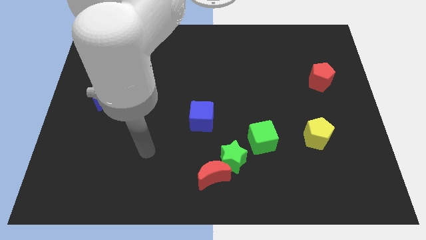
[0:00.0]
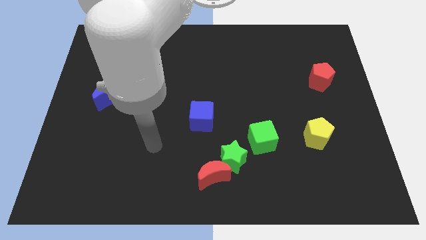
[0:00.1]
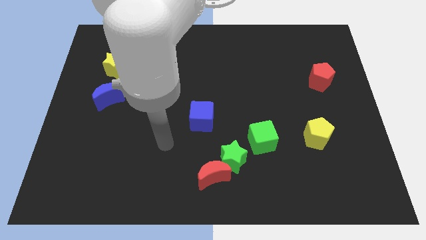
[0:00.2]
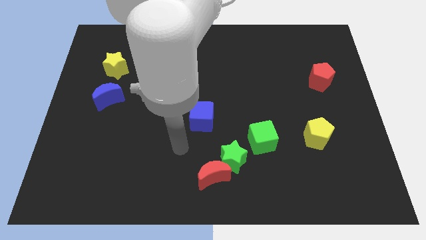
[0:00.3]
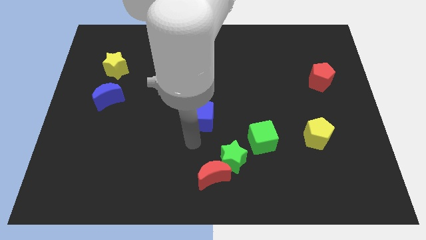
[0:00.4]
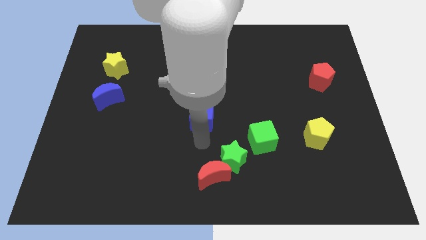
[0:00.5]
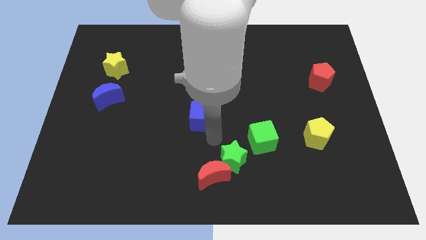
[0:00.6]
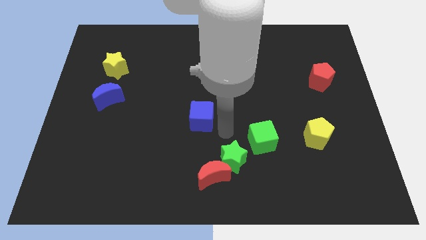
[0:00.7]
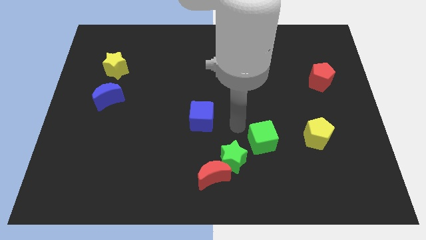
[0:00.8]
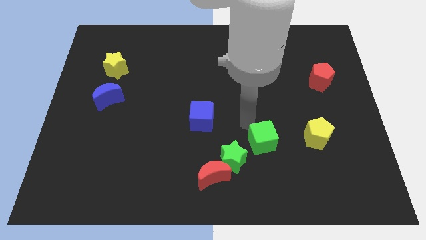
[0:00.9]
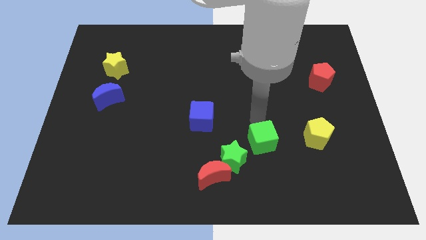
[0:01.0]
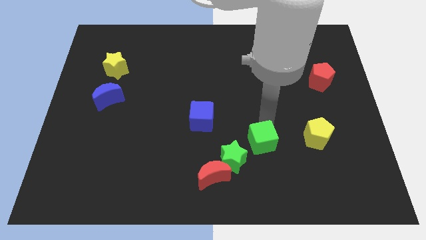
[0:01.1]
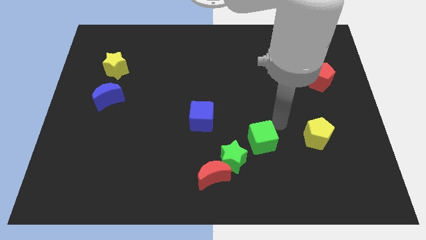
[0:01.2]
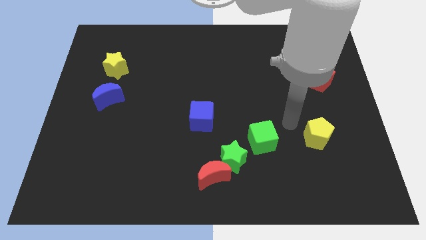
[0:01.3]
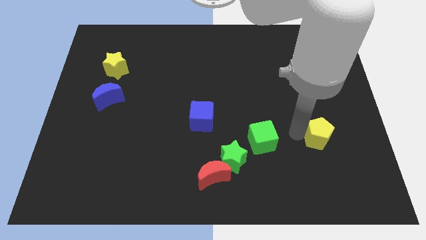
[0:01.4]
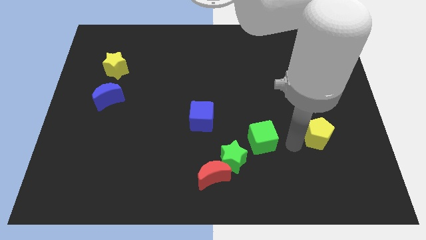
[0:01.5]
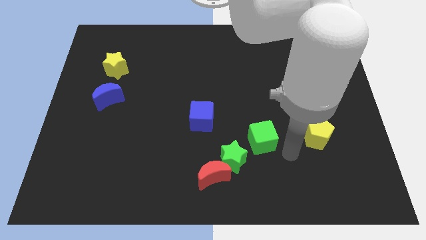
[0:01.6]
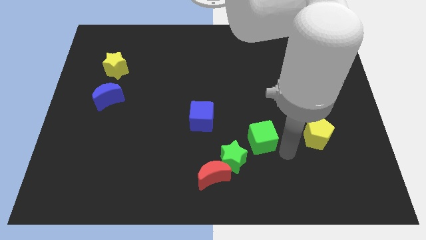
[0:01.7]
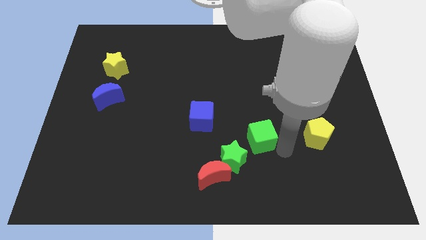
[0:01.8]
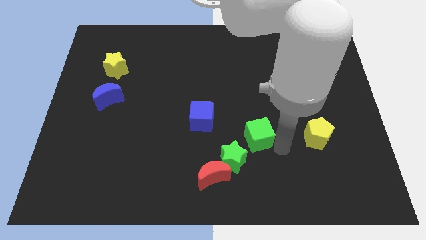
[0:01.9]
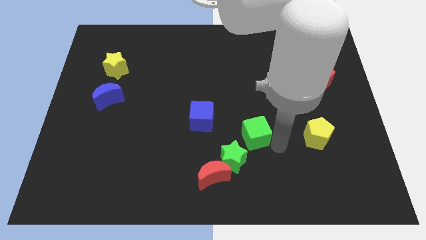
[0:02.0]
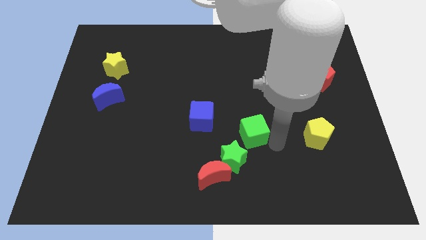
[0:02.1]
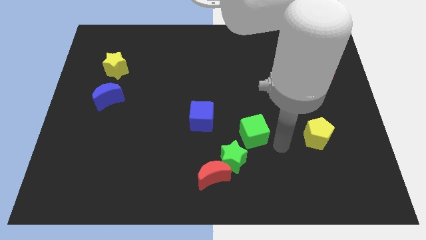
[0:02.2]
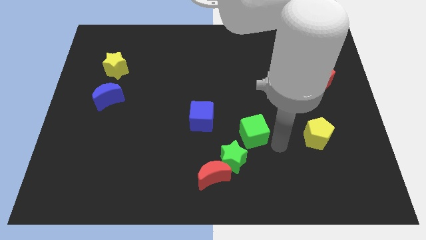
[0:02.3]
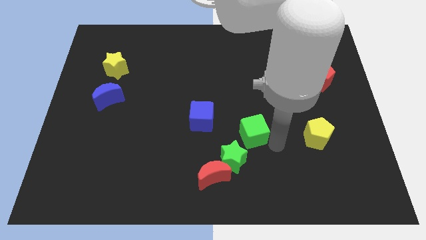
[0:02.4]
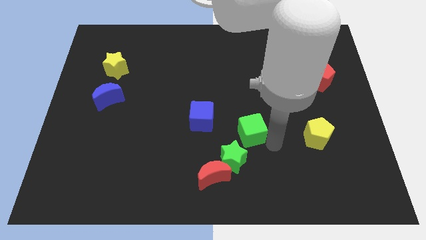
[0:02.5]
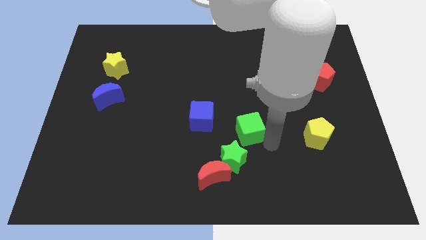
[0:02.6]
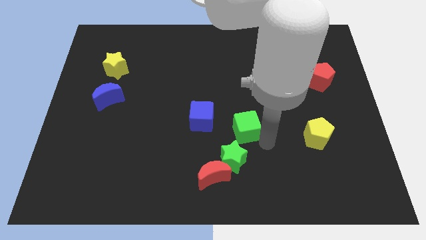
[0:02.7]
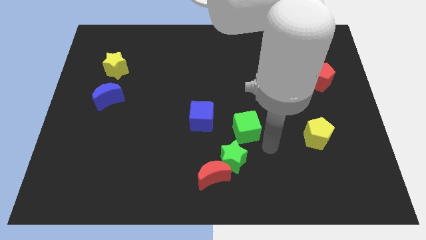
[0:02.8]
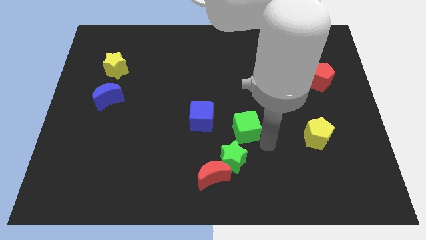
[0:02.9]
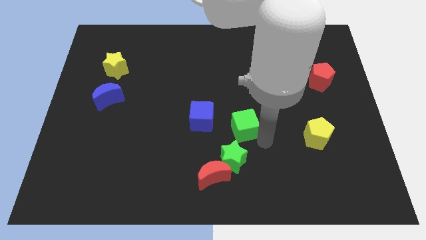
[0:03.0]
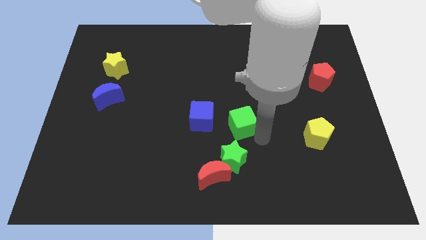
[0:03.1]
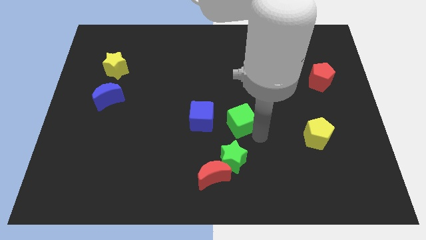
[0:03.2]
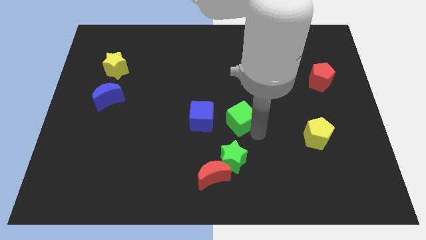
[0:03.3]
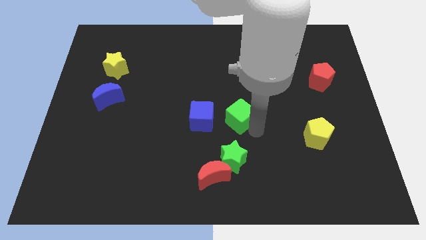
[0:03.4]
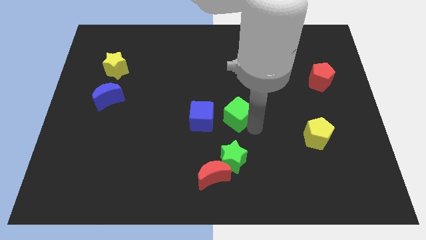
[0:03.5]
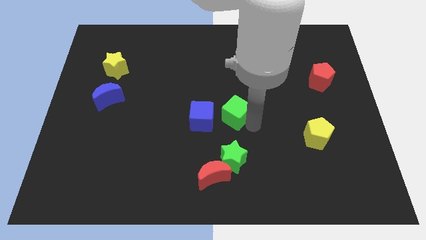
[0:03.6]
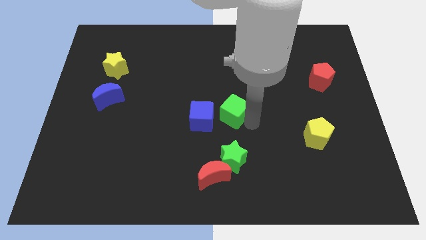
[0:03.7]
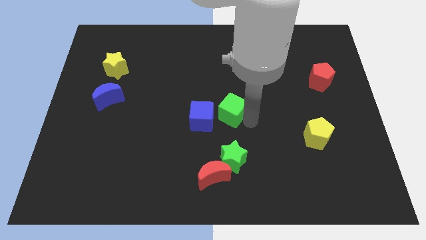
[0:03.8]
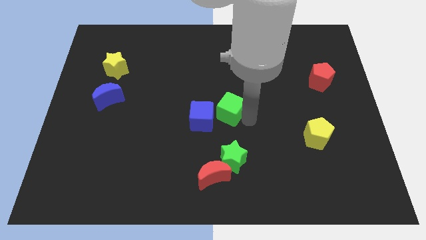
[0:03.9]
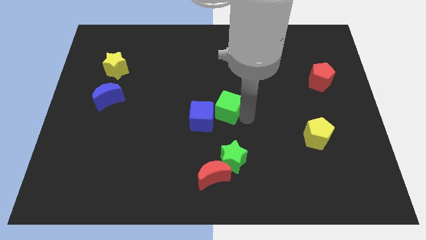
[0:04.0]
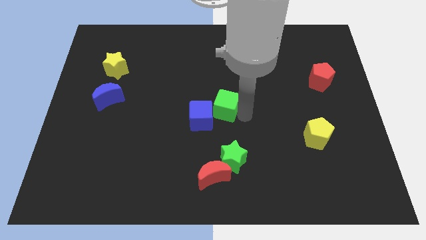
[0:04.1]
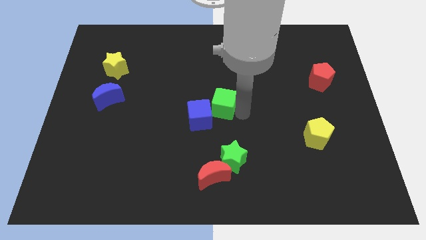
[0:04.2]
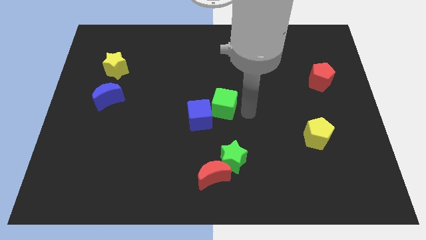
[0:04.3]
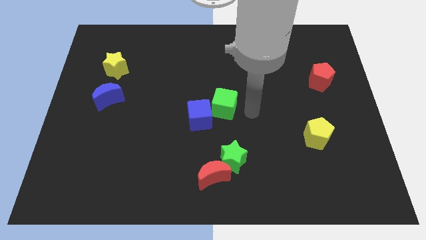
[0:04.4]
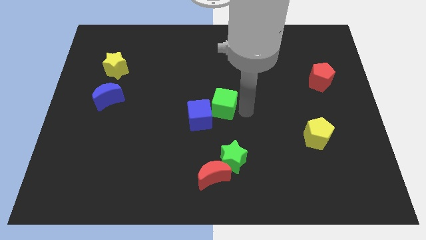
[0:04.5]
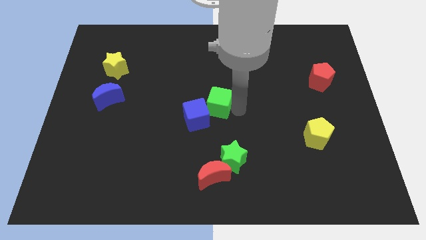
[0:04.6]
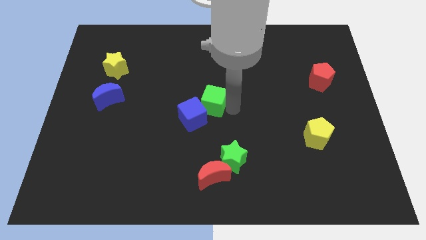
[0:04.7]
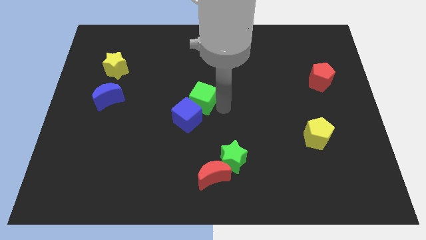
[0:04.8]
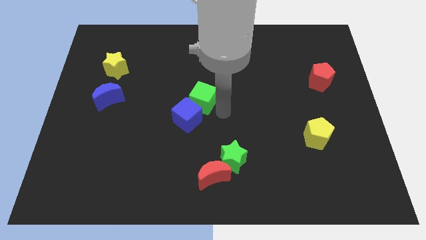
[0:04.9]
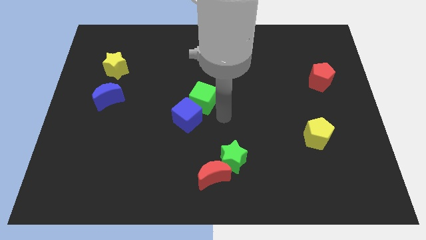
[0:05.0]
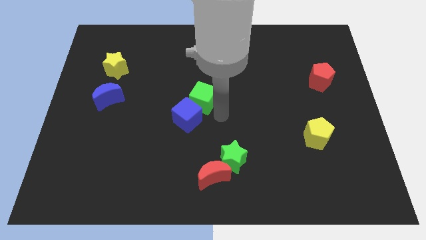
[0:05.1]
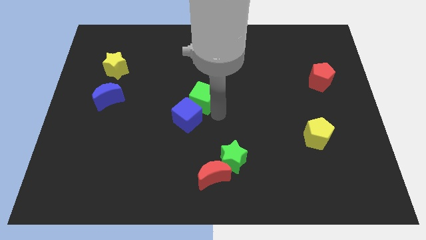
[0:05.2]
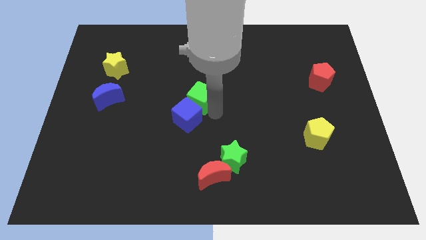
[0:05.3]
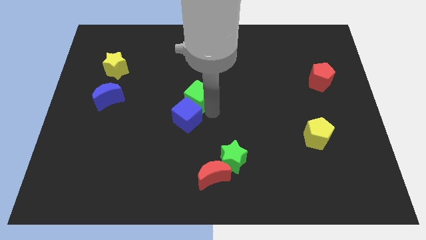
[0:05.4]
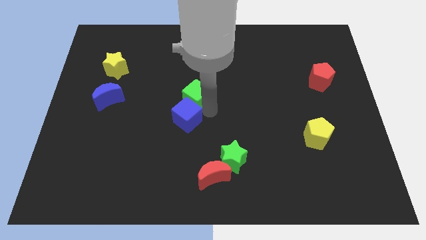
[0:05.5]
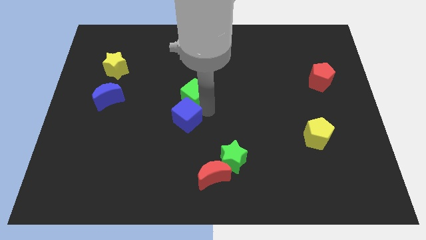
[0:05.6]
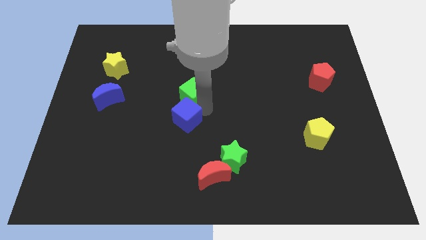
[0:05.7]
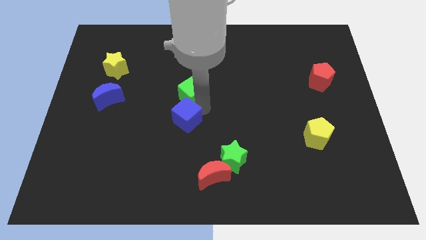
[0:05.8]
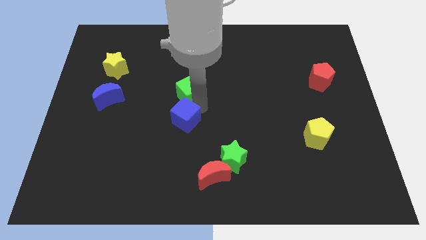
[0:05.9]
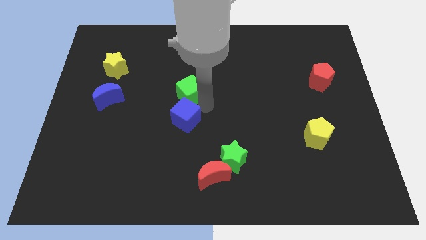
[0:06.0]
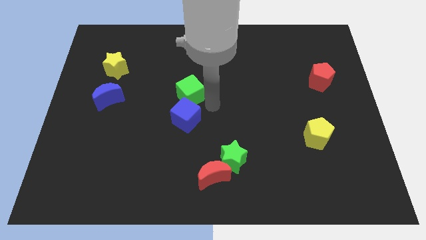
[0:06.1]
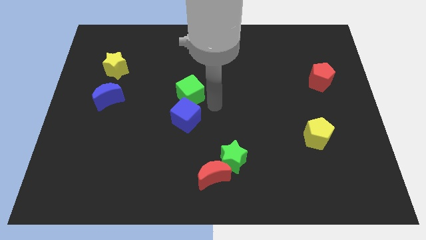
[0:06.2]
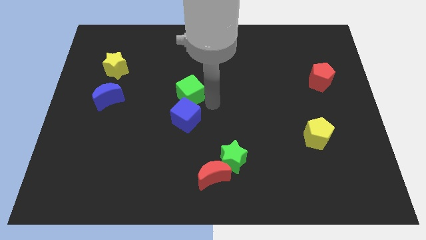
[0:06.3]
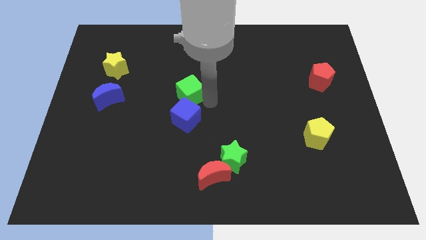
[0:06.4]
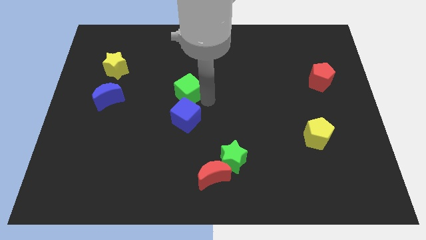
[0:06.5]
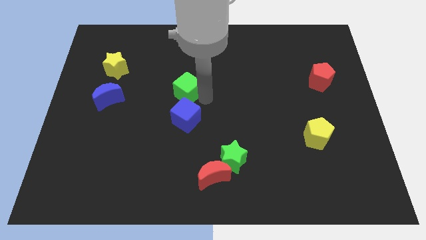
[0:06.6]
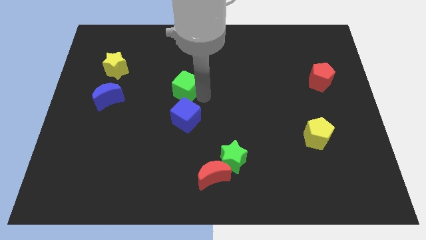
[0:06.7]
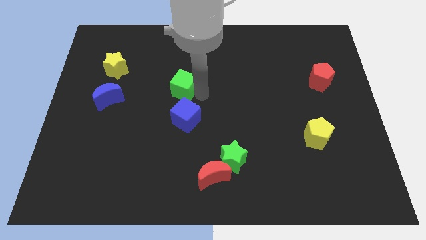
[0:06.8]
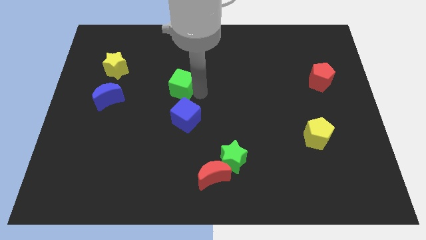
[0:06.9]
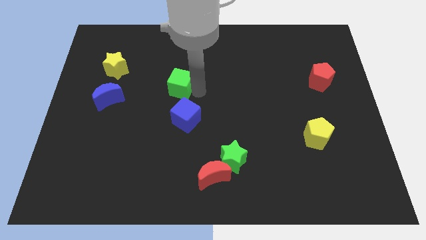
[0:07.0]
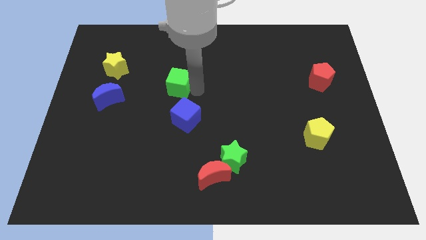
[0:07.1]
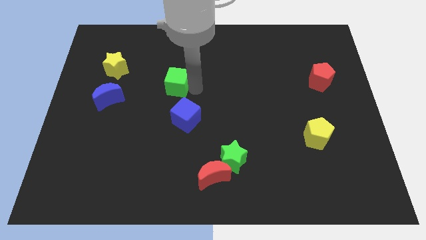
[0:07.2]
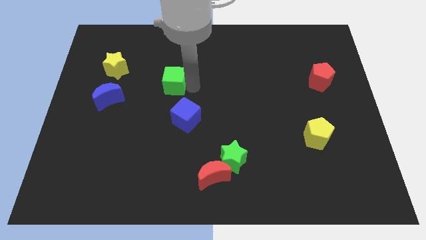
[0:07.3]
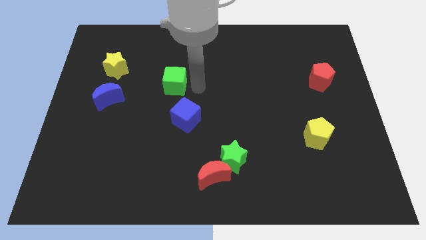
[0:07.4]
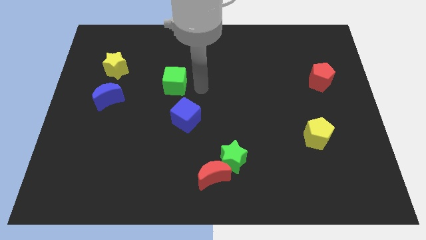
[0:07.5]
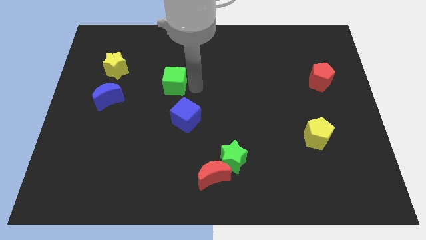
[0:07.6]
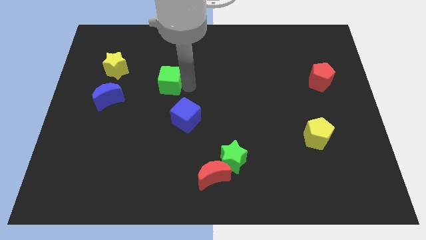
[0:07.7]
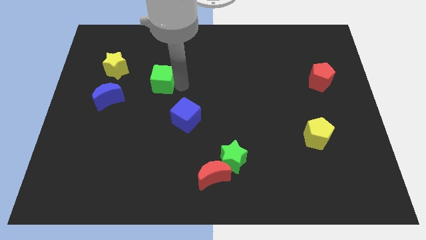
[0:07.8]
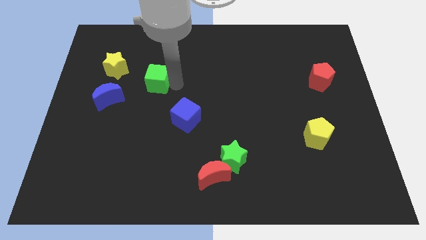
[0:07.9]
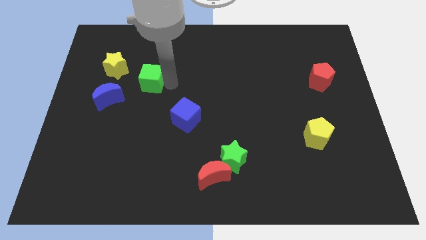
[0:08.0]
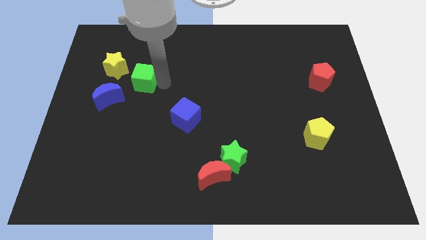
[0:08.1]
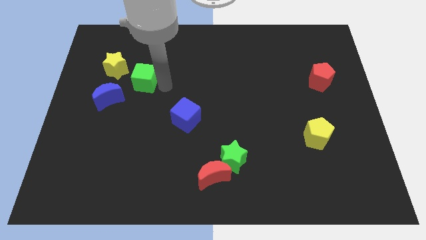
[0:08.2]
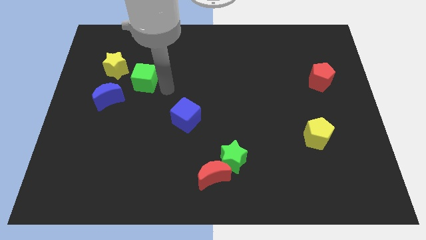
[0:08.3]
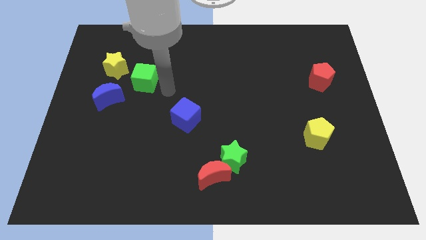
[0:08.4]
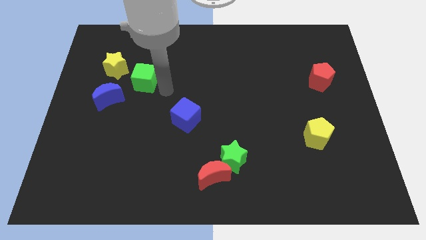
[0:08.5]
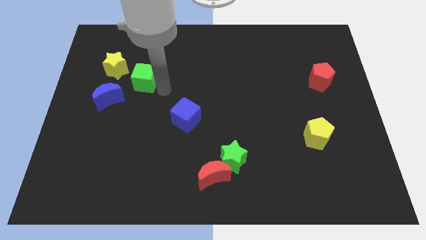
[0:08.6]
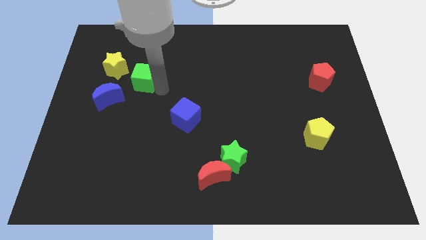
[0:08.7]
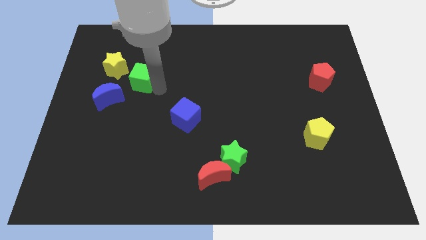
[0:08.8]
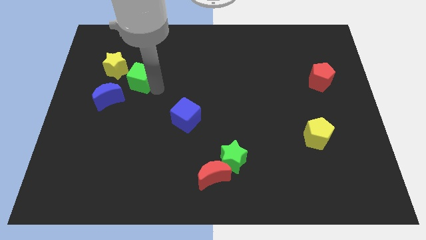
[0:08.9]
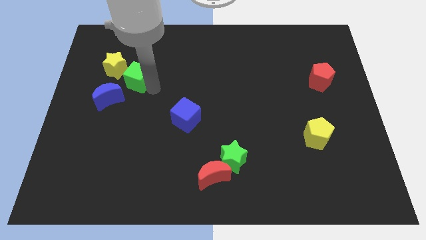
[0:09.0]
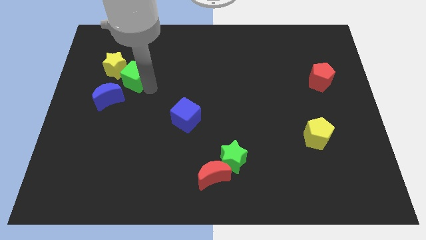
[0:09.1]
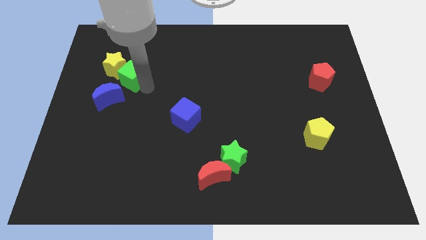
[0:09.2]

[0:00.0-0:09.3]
move the green cube close to the yellow star
